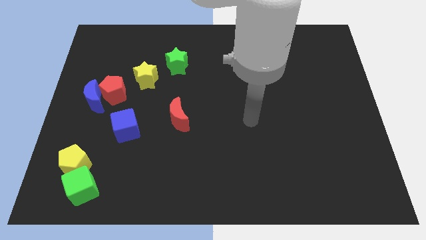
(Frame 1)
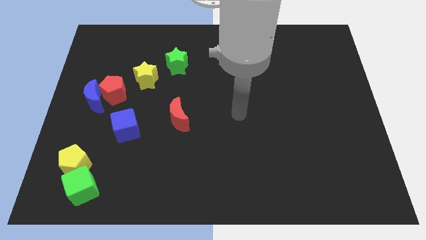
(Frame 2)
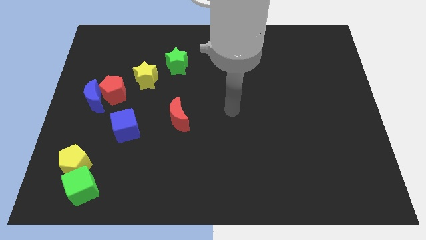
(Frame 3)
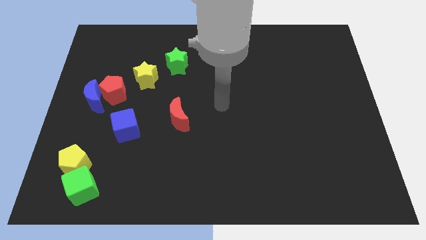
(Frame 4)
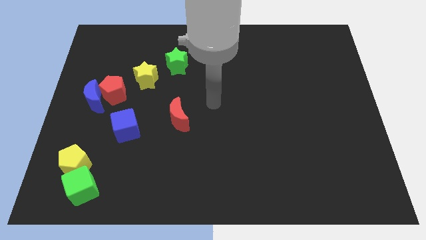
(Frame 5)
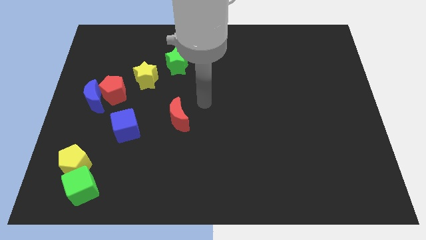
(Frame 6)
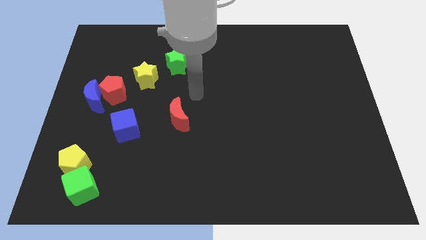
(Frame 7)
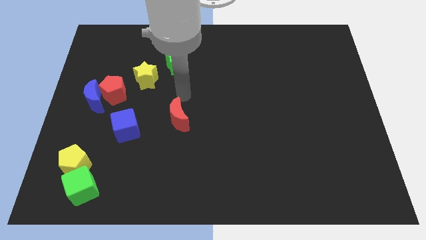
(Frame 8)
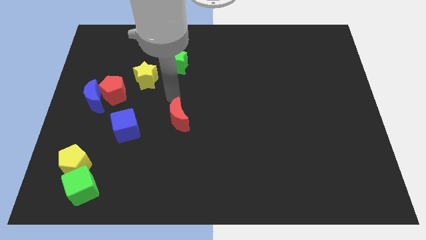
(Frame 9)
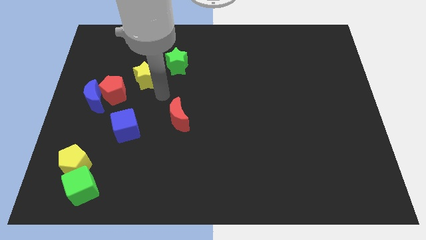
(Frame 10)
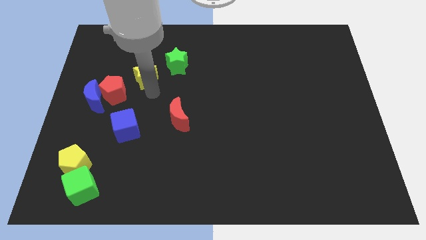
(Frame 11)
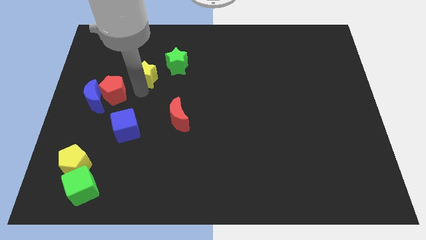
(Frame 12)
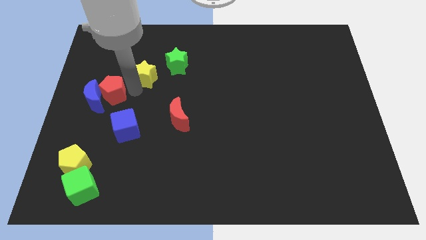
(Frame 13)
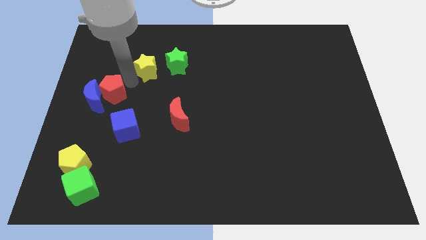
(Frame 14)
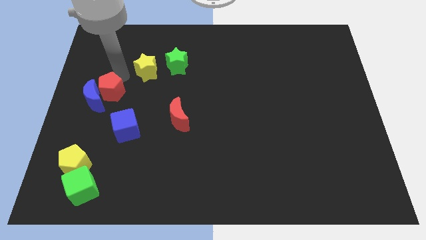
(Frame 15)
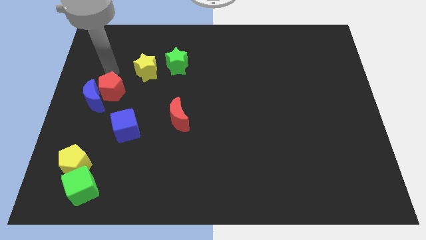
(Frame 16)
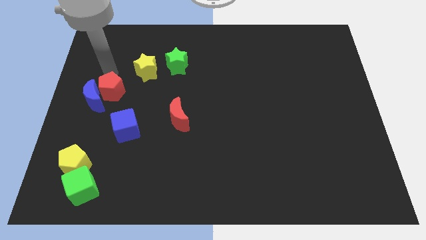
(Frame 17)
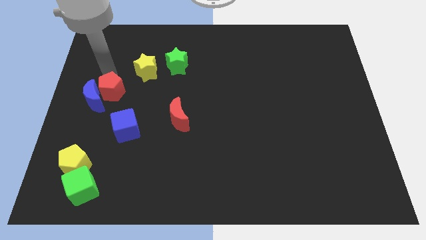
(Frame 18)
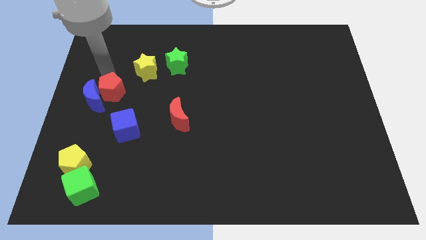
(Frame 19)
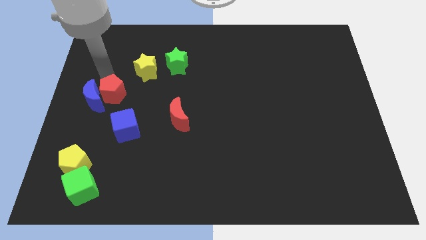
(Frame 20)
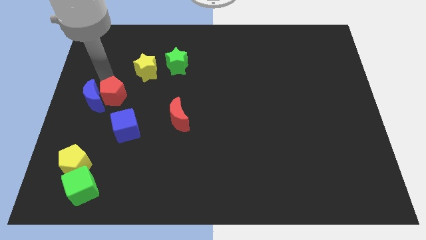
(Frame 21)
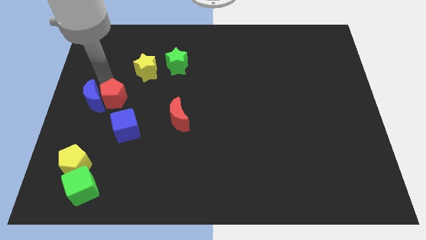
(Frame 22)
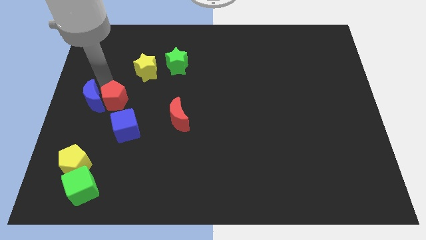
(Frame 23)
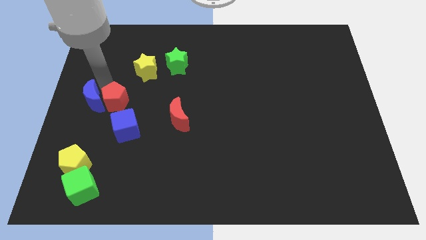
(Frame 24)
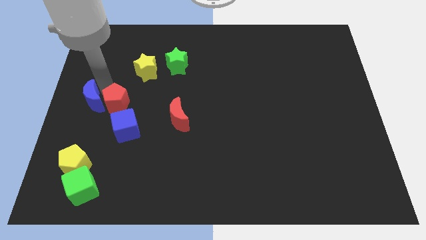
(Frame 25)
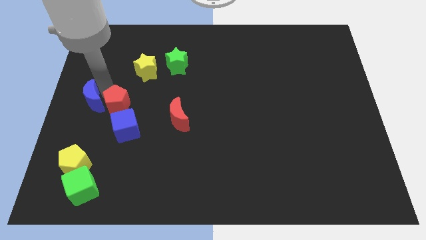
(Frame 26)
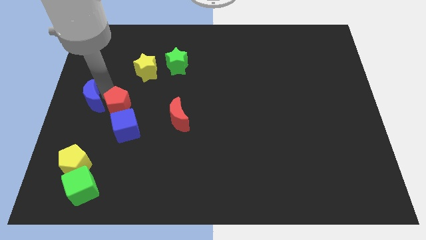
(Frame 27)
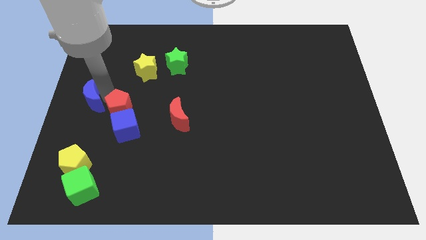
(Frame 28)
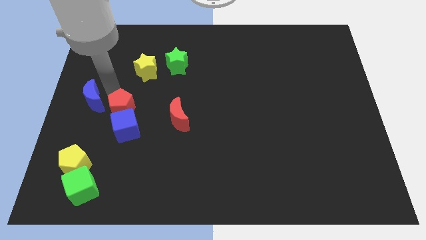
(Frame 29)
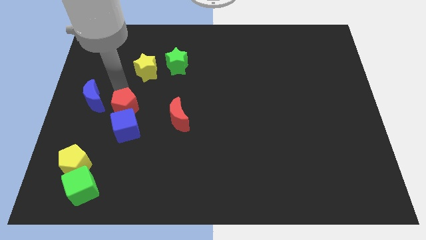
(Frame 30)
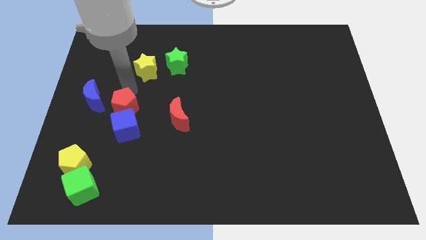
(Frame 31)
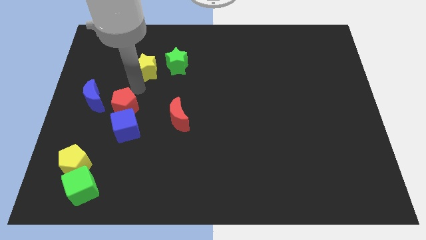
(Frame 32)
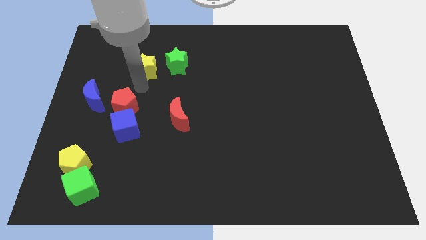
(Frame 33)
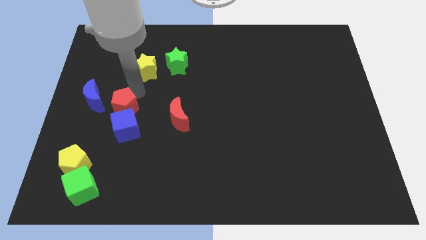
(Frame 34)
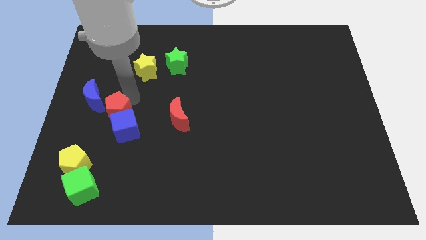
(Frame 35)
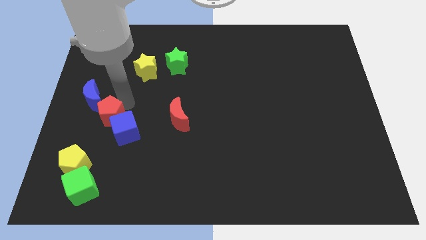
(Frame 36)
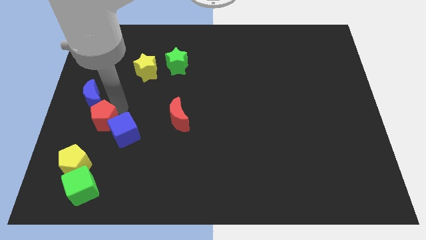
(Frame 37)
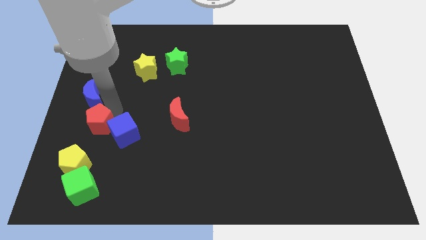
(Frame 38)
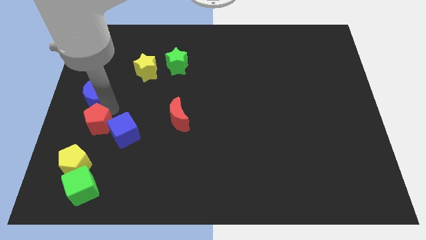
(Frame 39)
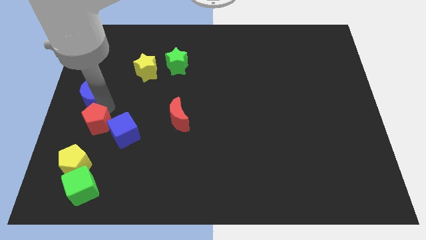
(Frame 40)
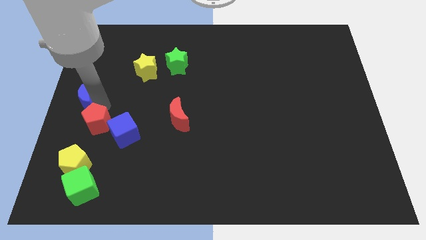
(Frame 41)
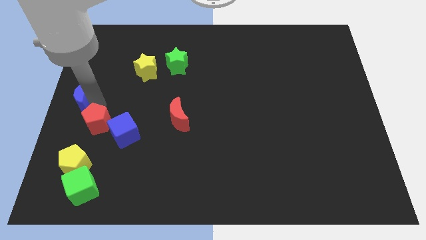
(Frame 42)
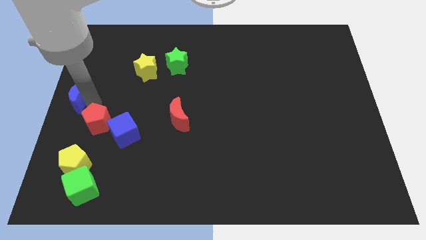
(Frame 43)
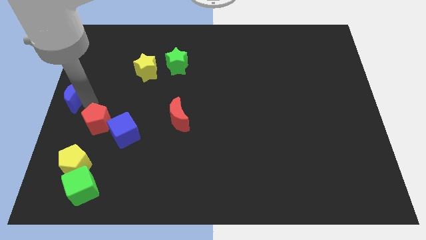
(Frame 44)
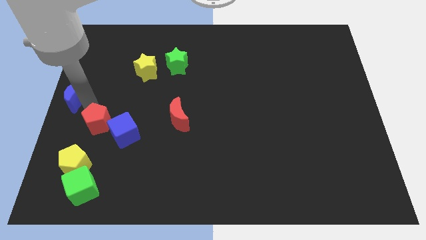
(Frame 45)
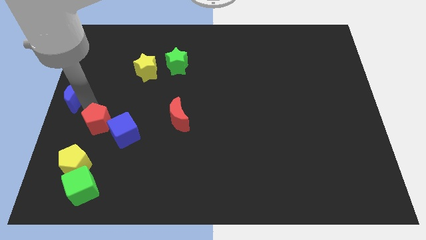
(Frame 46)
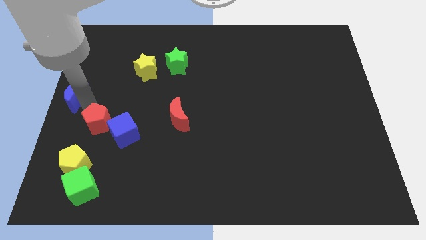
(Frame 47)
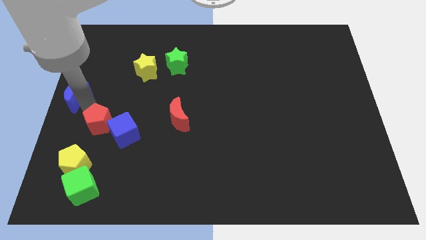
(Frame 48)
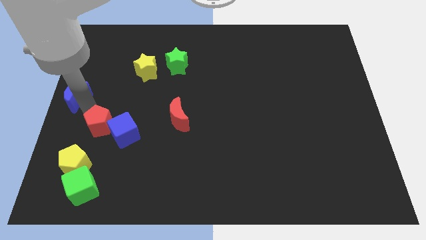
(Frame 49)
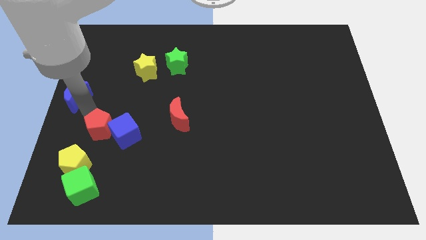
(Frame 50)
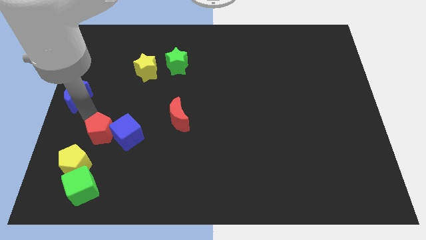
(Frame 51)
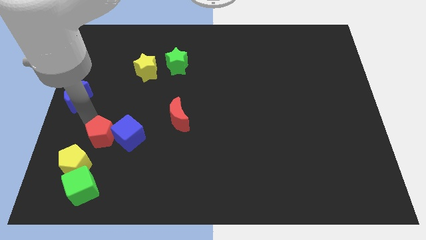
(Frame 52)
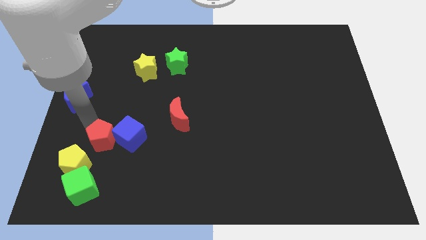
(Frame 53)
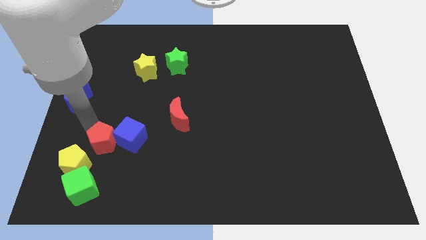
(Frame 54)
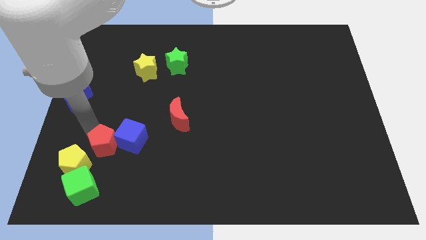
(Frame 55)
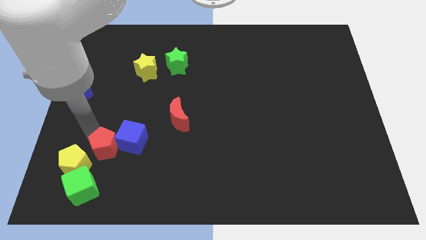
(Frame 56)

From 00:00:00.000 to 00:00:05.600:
put the red pentagon to the top right of the green cube

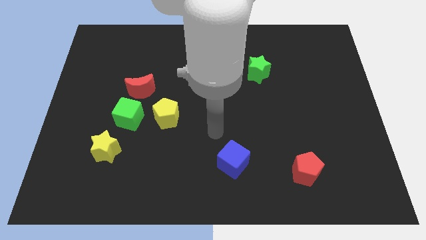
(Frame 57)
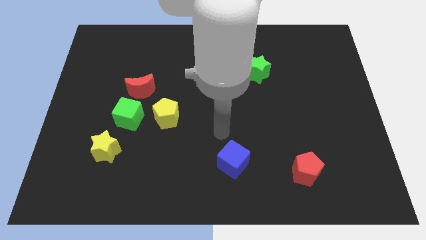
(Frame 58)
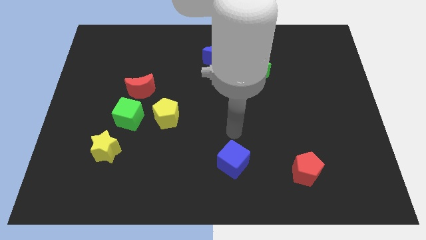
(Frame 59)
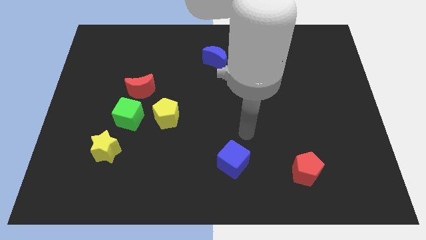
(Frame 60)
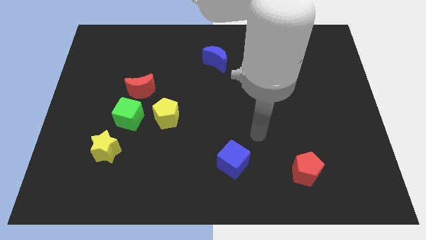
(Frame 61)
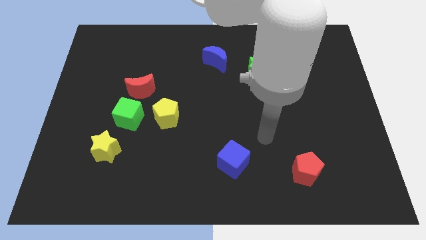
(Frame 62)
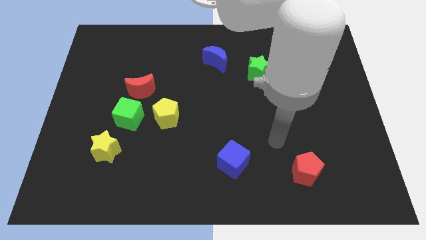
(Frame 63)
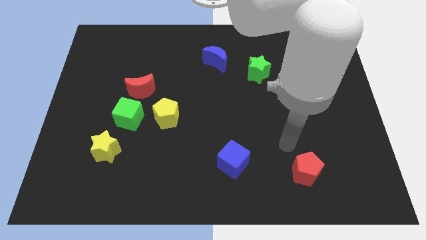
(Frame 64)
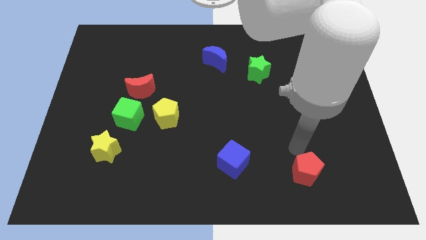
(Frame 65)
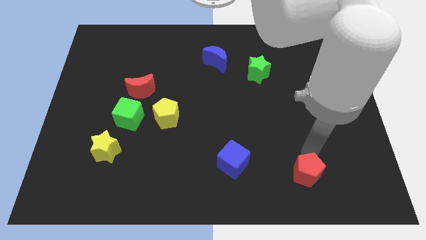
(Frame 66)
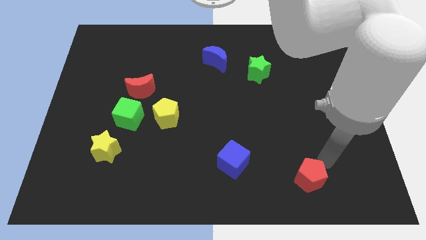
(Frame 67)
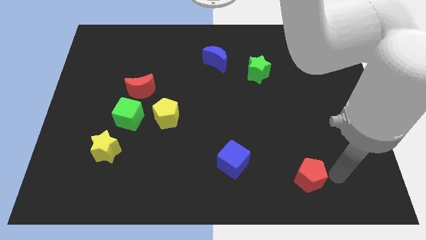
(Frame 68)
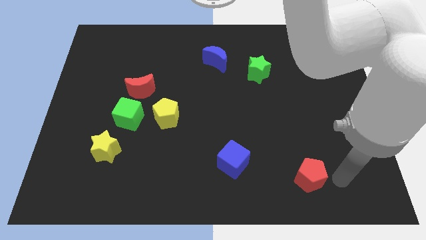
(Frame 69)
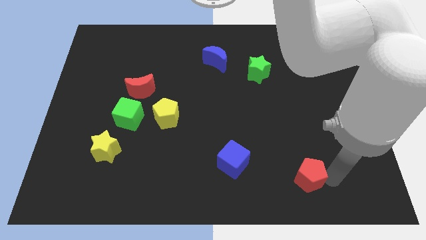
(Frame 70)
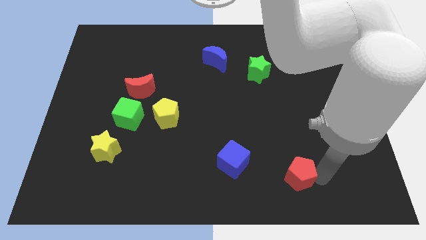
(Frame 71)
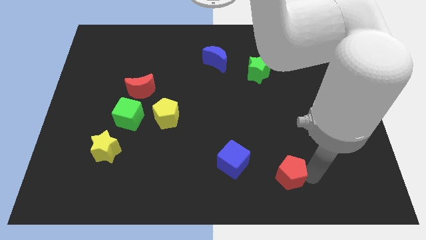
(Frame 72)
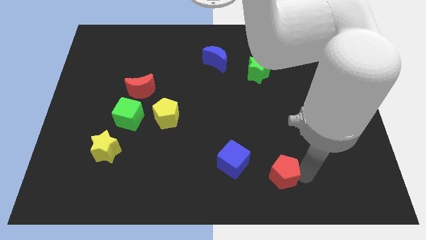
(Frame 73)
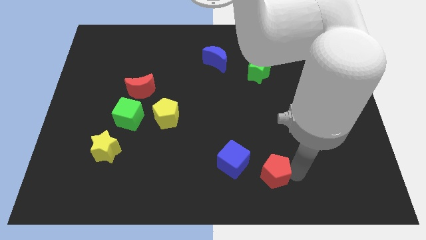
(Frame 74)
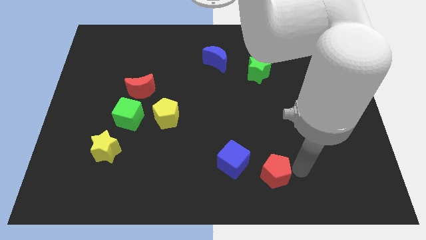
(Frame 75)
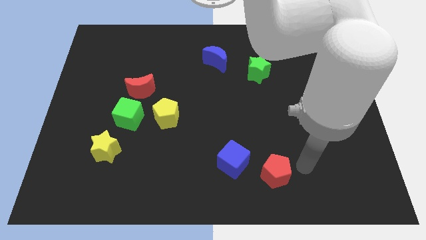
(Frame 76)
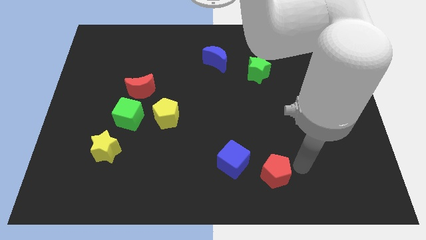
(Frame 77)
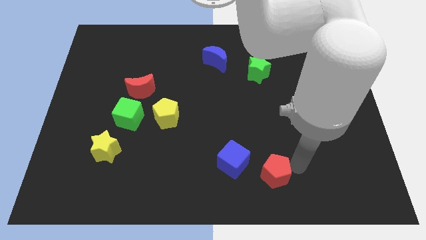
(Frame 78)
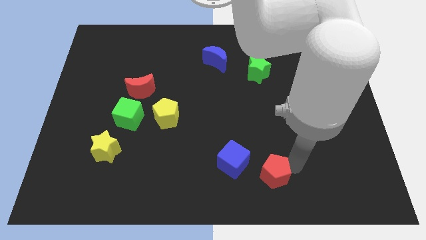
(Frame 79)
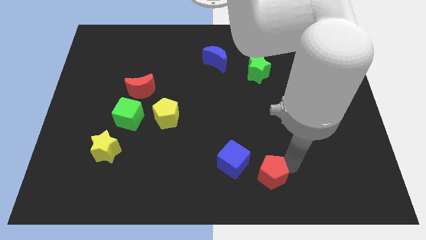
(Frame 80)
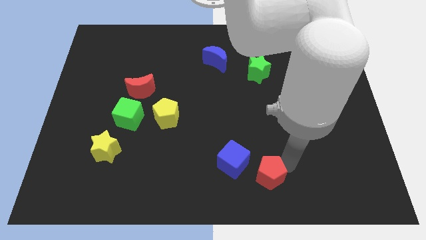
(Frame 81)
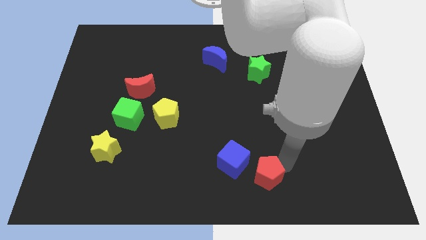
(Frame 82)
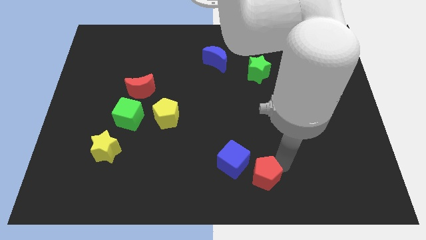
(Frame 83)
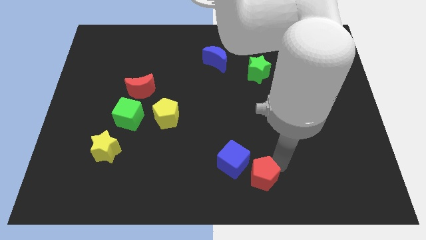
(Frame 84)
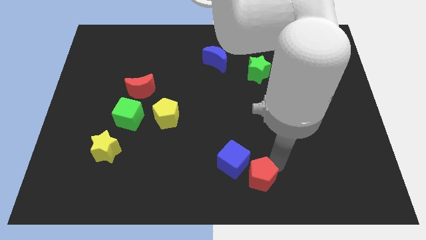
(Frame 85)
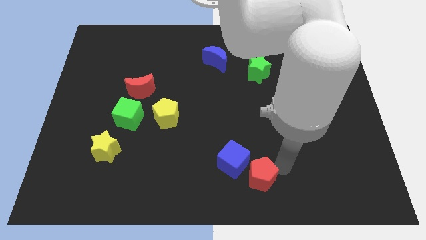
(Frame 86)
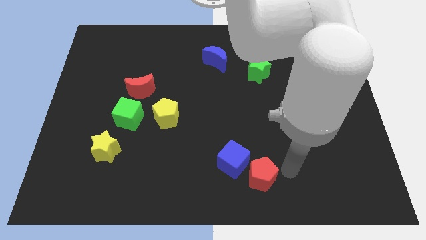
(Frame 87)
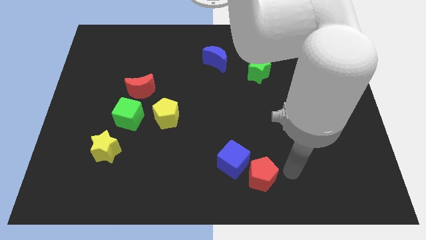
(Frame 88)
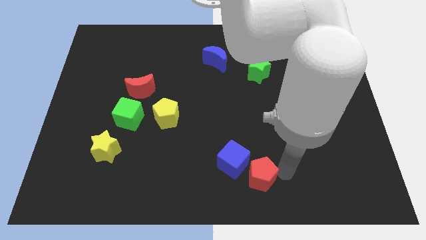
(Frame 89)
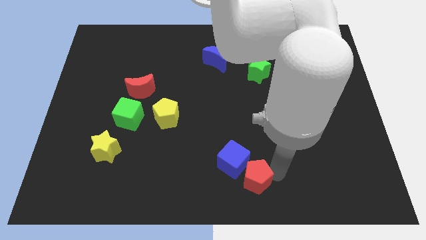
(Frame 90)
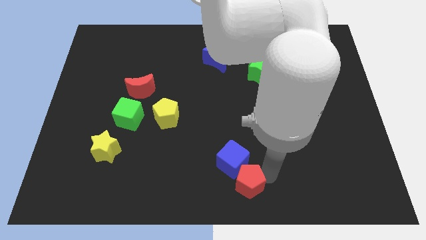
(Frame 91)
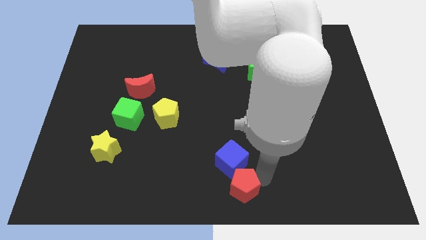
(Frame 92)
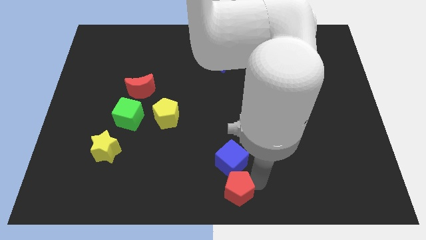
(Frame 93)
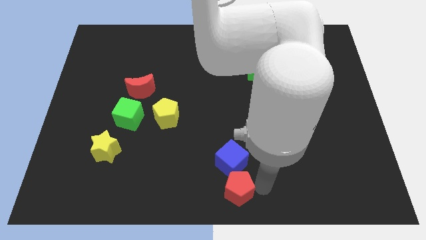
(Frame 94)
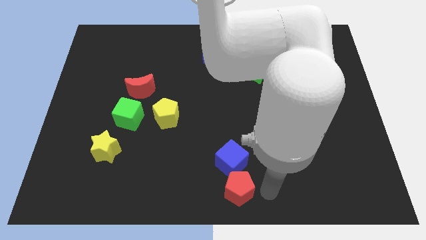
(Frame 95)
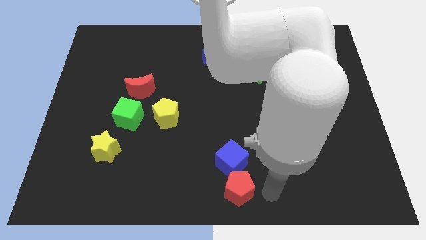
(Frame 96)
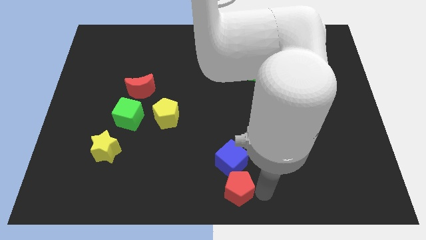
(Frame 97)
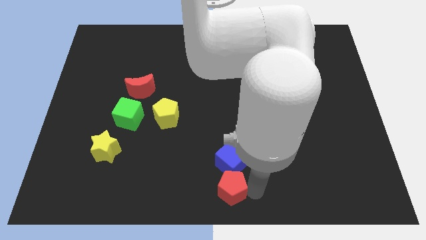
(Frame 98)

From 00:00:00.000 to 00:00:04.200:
put the red pentagon diagonally down and to the left of the blue cube
